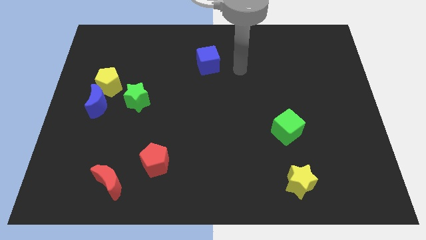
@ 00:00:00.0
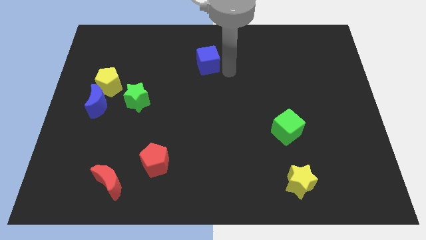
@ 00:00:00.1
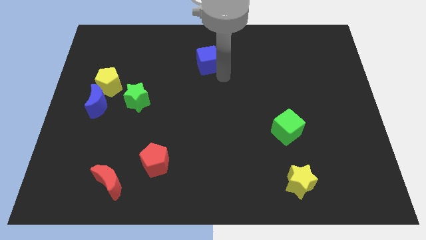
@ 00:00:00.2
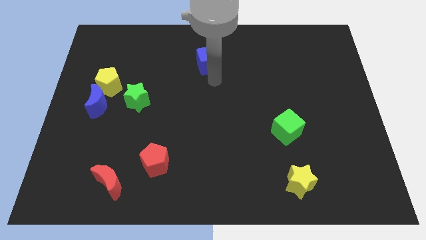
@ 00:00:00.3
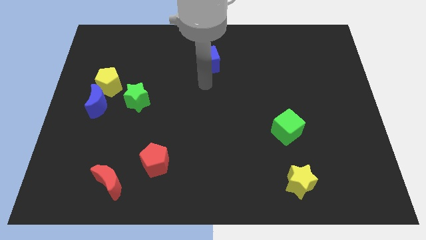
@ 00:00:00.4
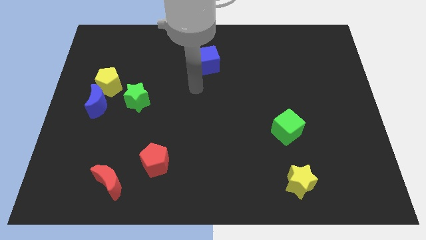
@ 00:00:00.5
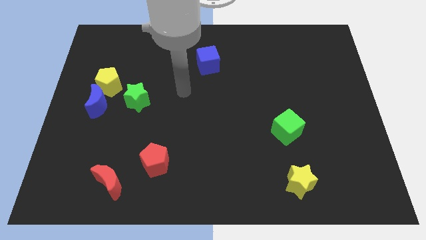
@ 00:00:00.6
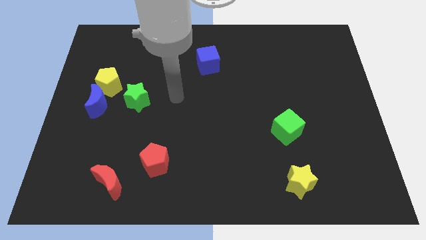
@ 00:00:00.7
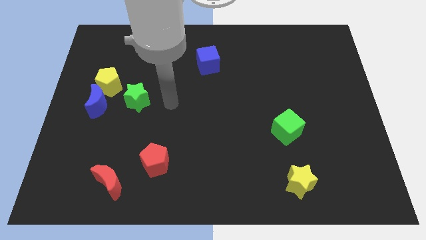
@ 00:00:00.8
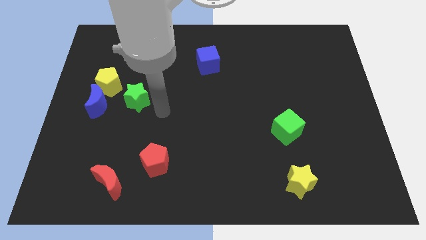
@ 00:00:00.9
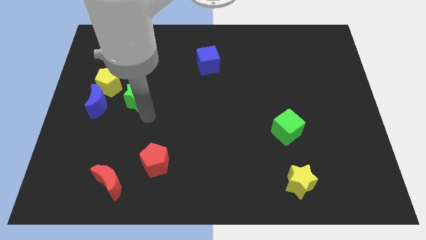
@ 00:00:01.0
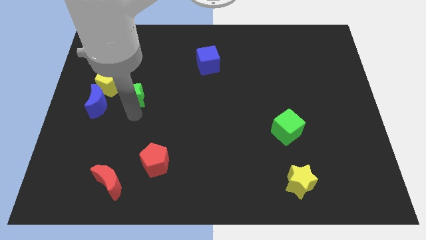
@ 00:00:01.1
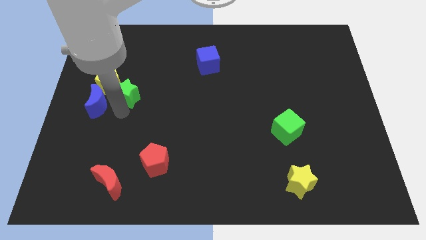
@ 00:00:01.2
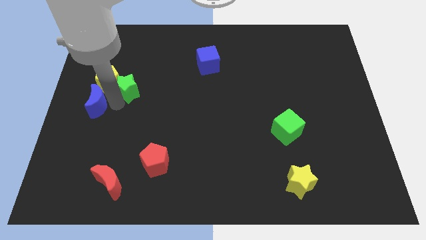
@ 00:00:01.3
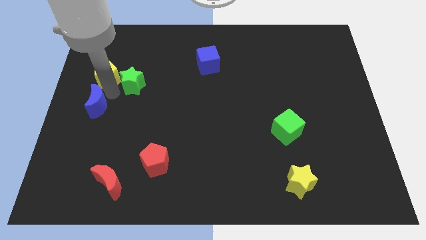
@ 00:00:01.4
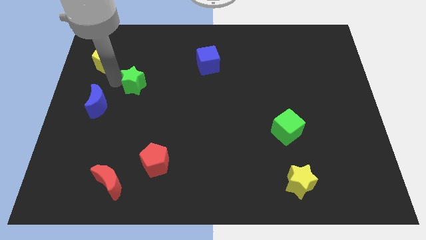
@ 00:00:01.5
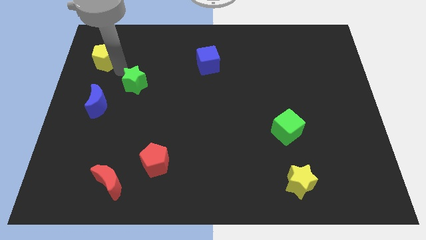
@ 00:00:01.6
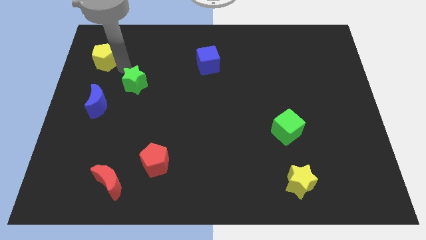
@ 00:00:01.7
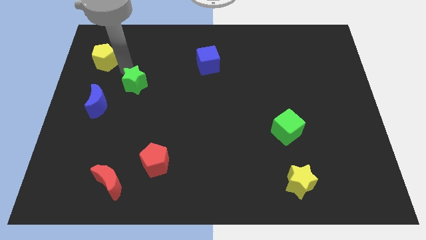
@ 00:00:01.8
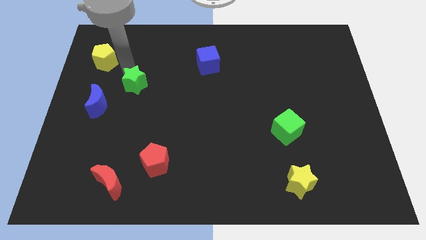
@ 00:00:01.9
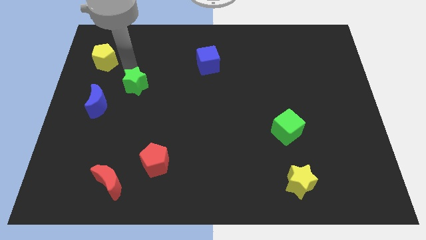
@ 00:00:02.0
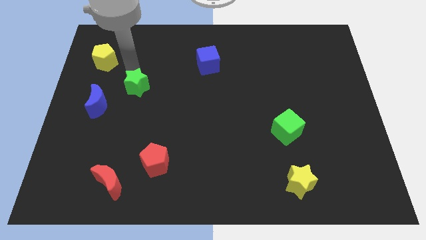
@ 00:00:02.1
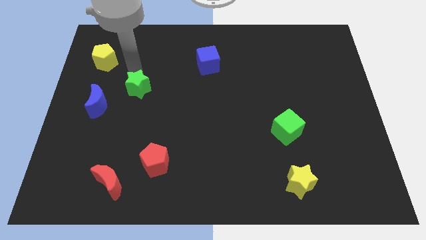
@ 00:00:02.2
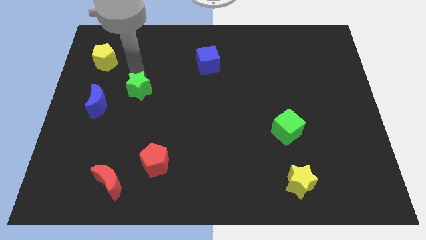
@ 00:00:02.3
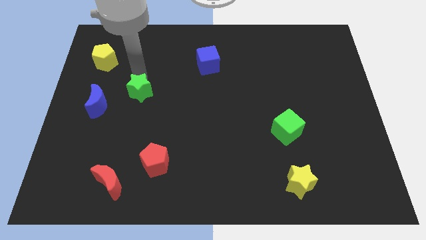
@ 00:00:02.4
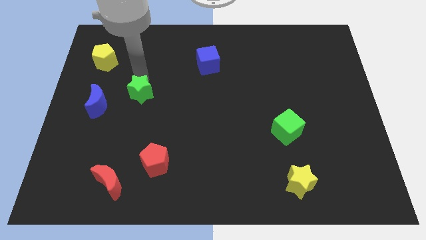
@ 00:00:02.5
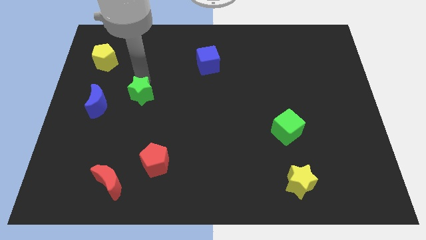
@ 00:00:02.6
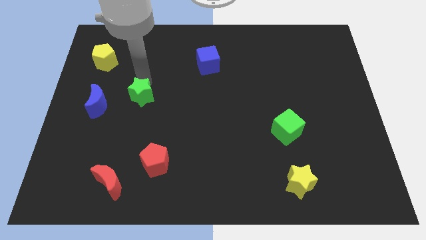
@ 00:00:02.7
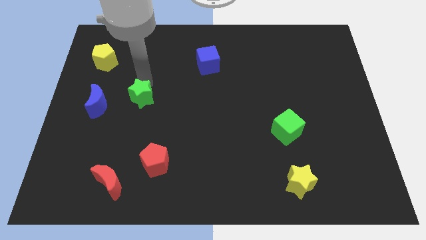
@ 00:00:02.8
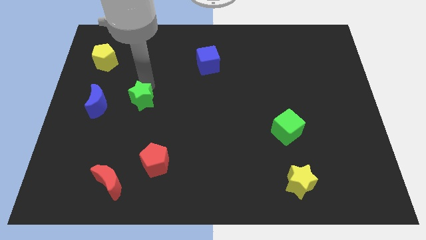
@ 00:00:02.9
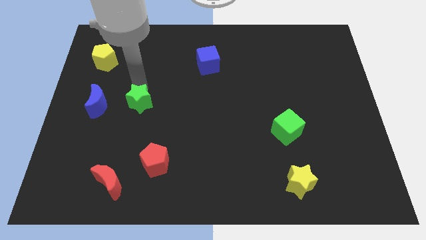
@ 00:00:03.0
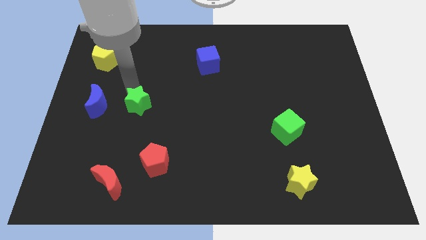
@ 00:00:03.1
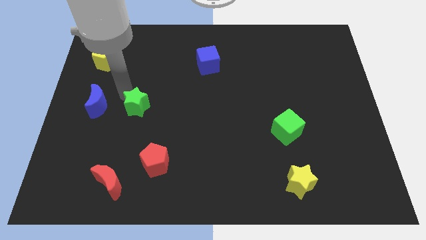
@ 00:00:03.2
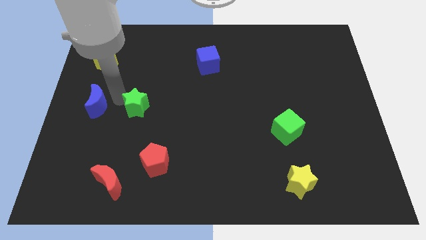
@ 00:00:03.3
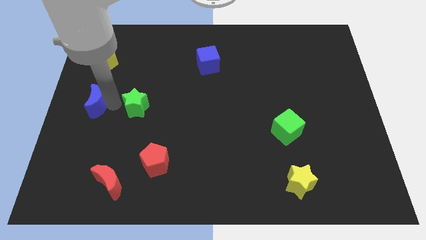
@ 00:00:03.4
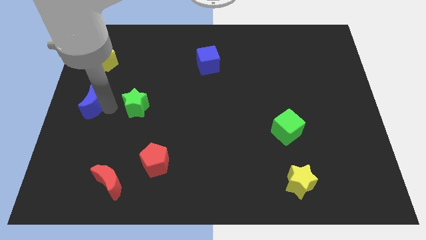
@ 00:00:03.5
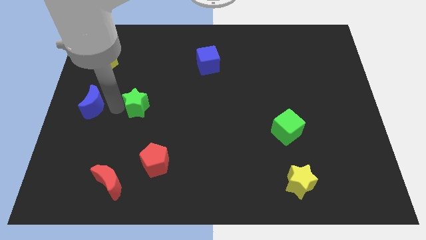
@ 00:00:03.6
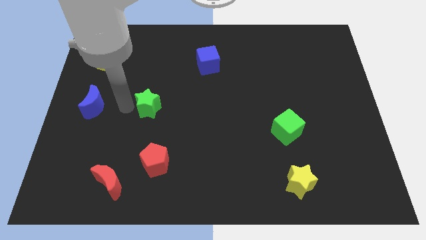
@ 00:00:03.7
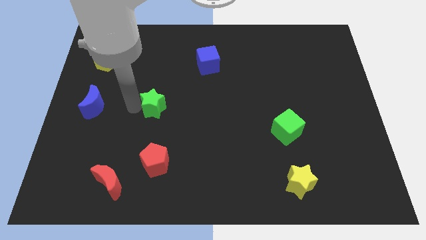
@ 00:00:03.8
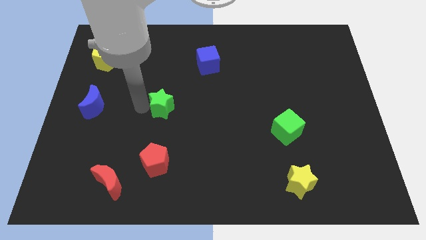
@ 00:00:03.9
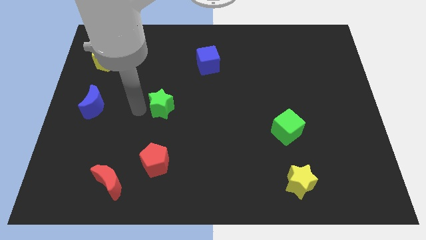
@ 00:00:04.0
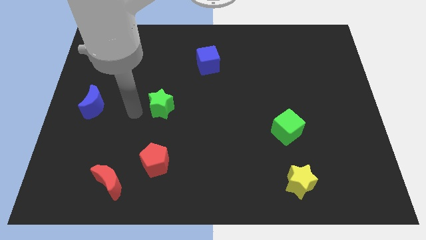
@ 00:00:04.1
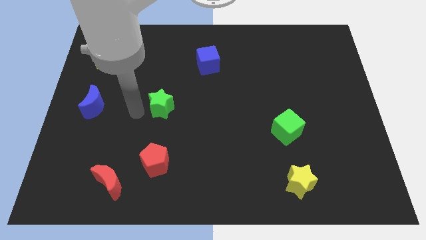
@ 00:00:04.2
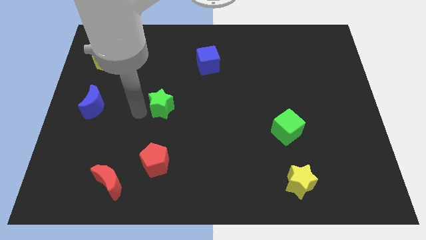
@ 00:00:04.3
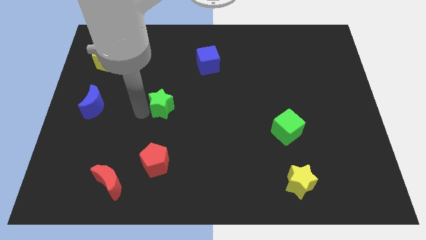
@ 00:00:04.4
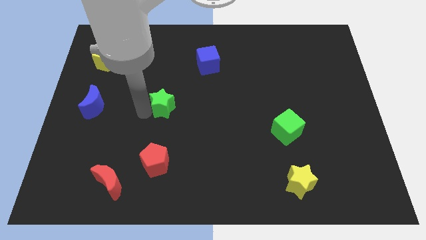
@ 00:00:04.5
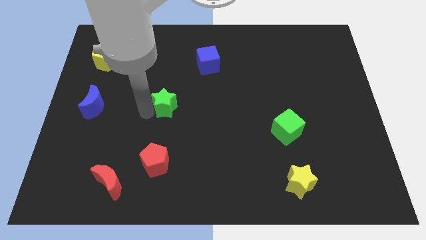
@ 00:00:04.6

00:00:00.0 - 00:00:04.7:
slightly slide the green star to the right

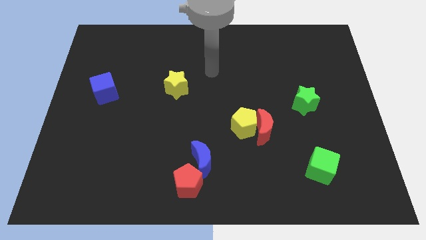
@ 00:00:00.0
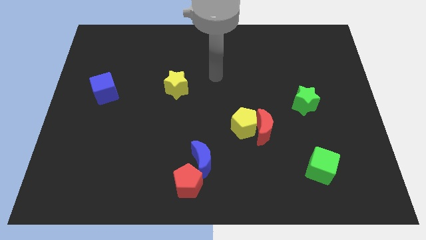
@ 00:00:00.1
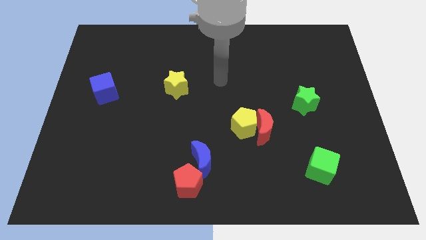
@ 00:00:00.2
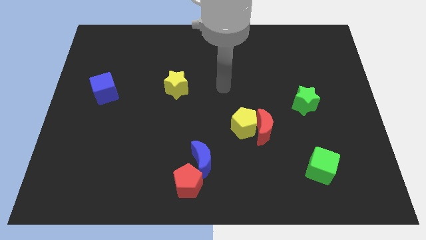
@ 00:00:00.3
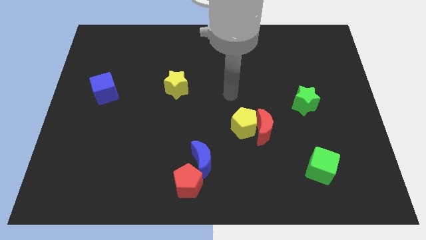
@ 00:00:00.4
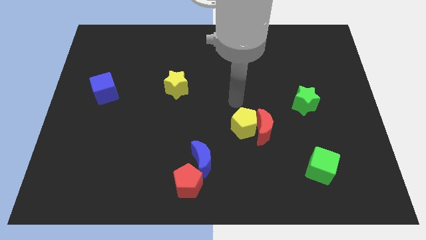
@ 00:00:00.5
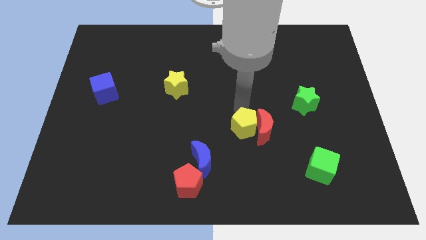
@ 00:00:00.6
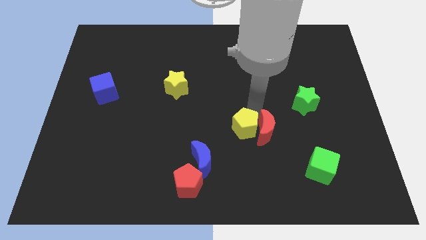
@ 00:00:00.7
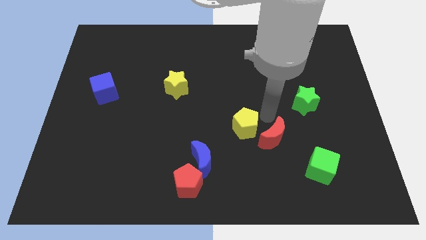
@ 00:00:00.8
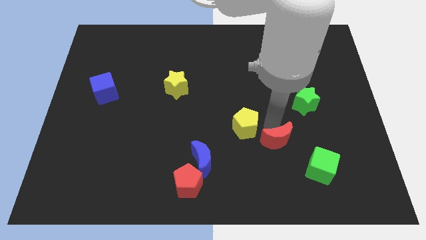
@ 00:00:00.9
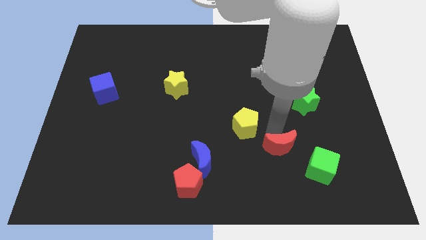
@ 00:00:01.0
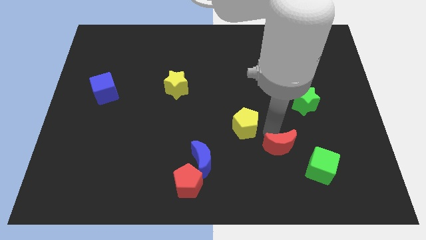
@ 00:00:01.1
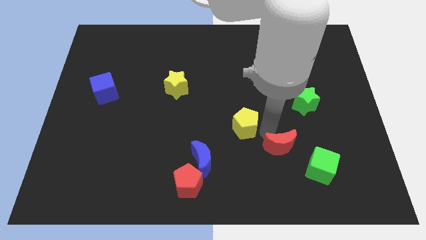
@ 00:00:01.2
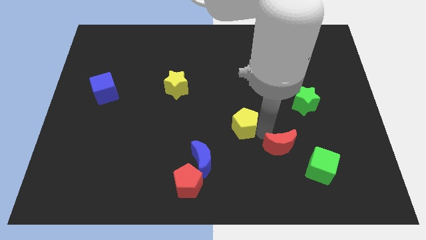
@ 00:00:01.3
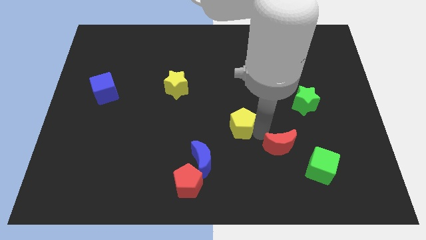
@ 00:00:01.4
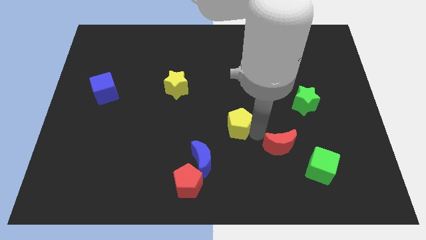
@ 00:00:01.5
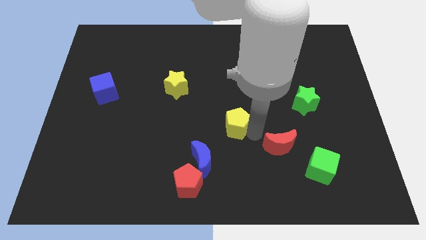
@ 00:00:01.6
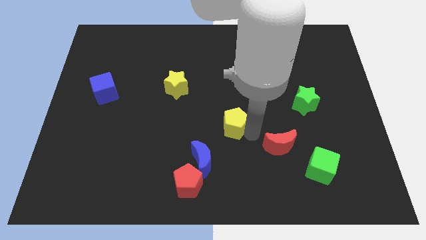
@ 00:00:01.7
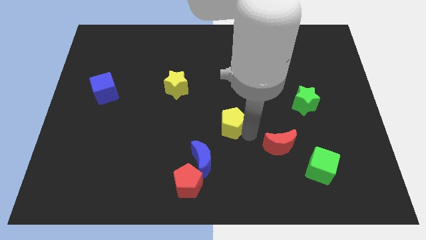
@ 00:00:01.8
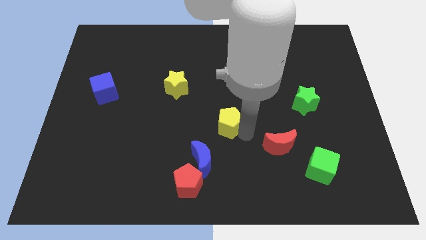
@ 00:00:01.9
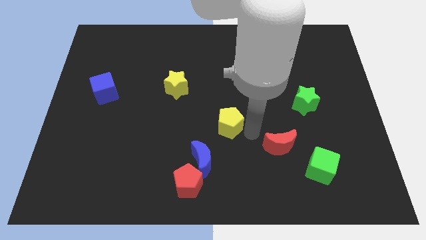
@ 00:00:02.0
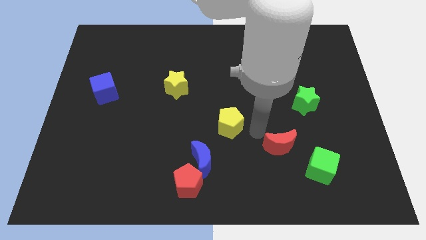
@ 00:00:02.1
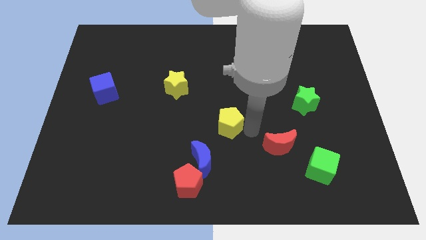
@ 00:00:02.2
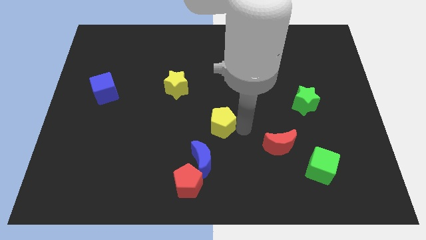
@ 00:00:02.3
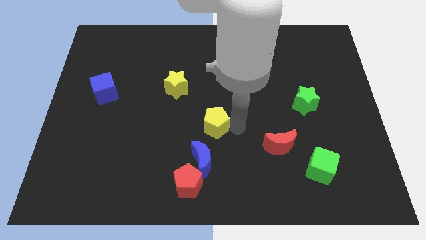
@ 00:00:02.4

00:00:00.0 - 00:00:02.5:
move the yellow pentagon left slightly

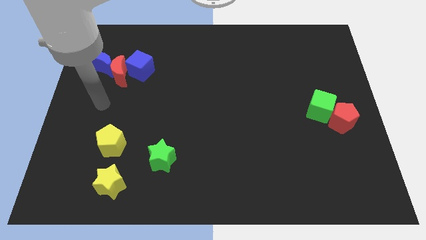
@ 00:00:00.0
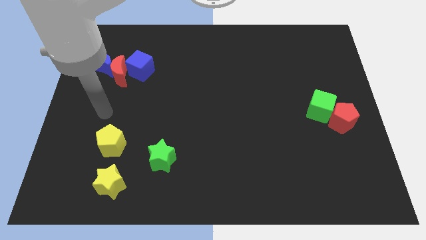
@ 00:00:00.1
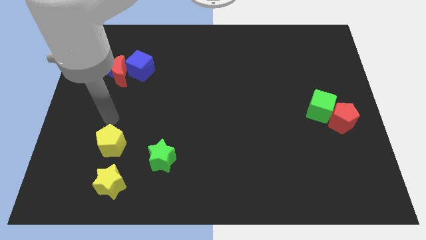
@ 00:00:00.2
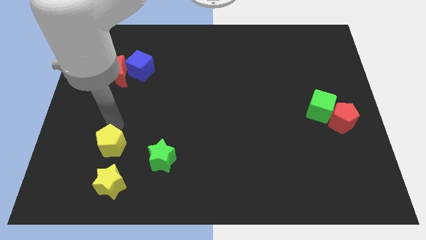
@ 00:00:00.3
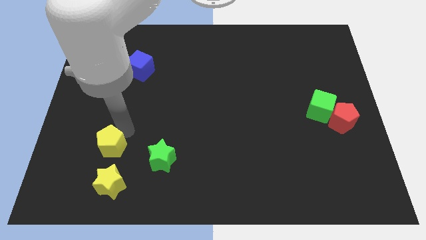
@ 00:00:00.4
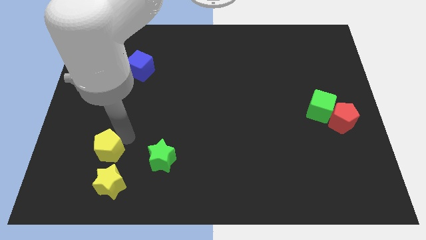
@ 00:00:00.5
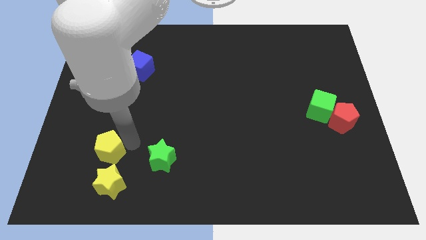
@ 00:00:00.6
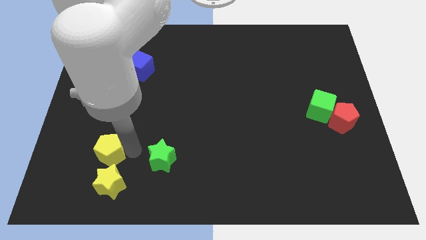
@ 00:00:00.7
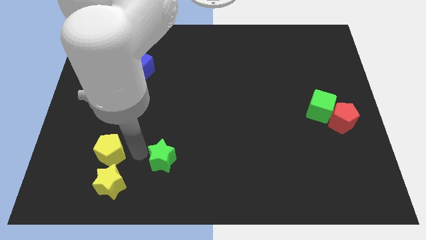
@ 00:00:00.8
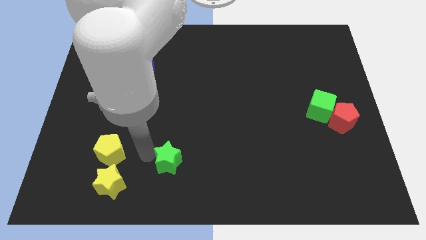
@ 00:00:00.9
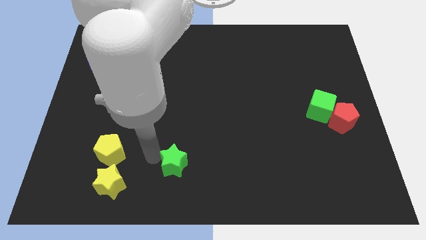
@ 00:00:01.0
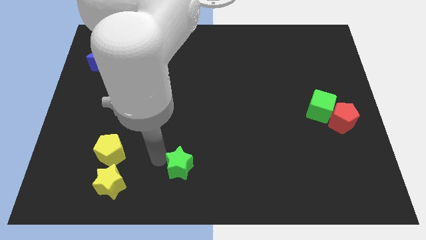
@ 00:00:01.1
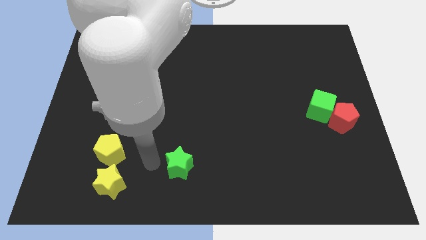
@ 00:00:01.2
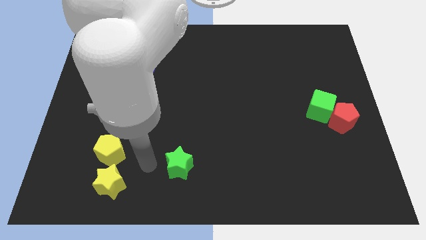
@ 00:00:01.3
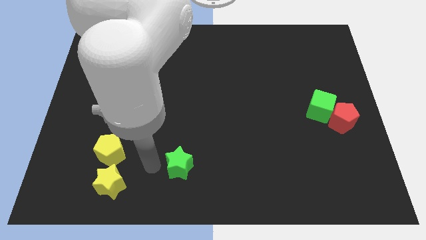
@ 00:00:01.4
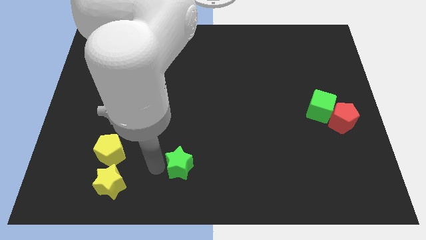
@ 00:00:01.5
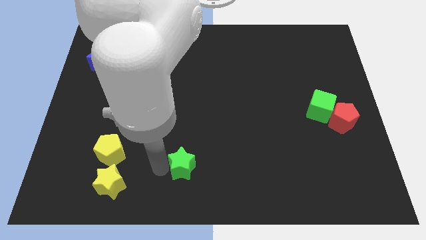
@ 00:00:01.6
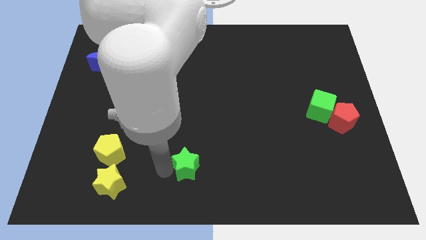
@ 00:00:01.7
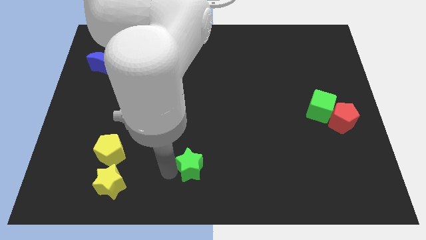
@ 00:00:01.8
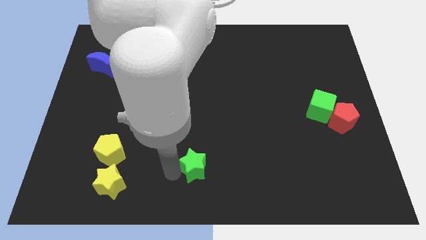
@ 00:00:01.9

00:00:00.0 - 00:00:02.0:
push the green star to the right a little bit
